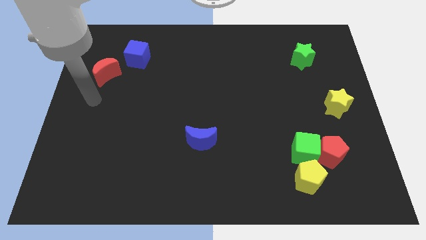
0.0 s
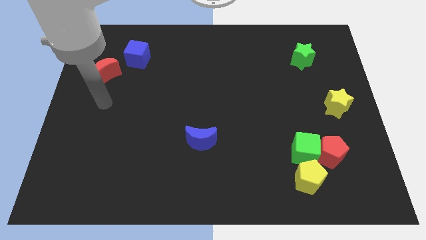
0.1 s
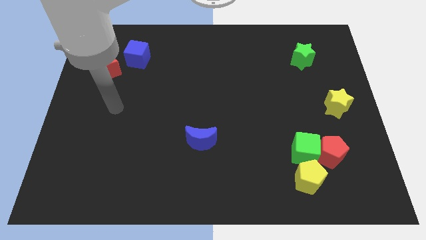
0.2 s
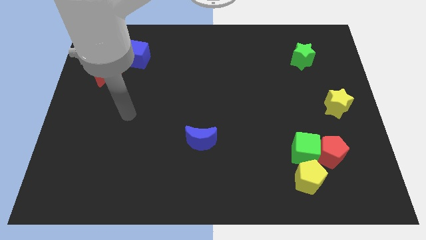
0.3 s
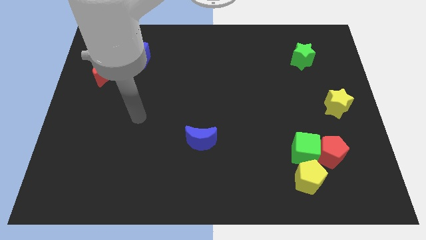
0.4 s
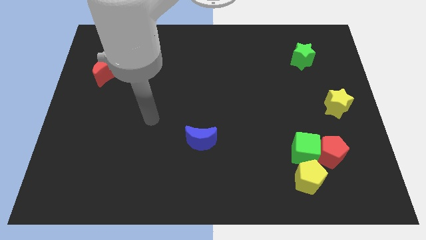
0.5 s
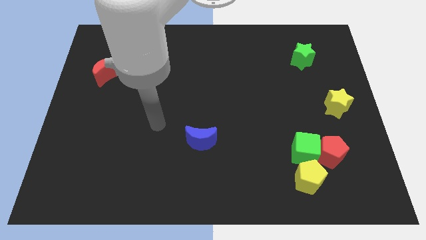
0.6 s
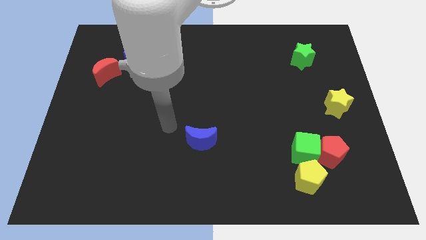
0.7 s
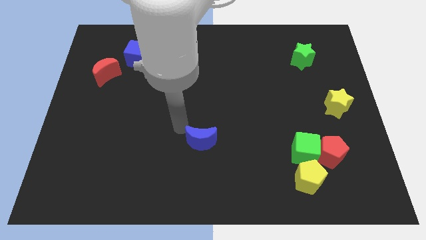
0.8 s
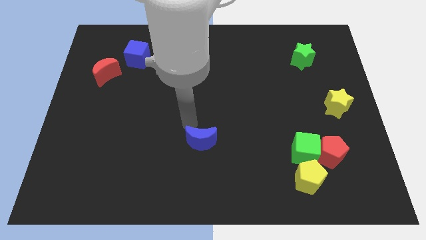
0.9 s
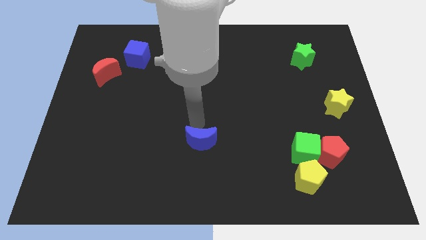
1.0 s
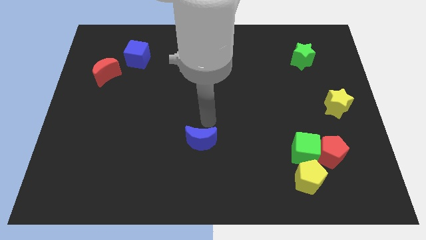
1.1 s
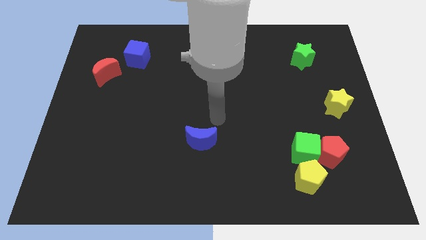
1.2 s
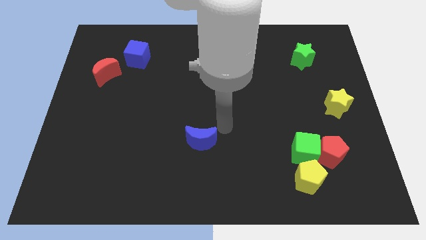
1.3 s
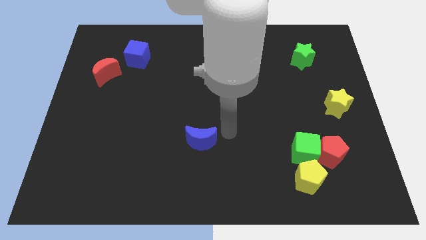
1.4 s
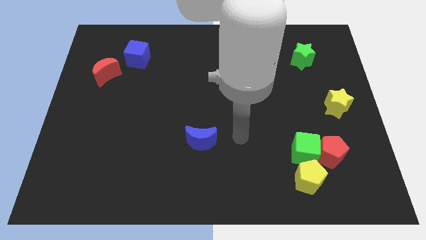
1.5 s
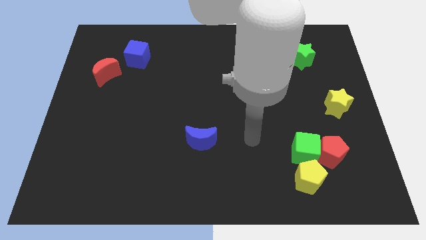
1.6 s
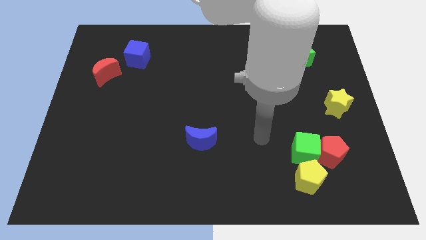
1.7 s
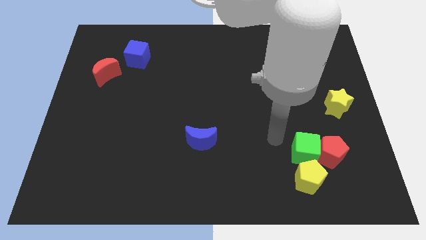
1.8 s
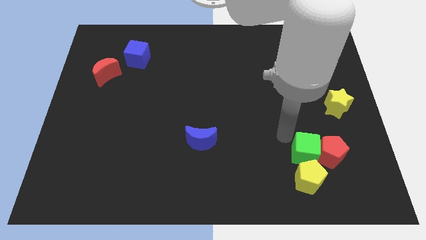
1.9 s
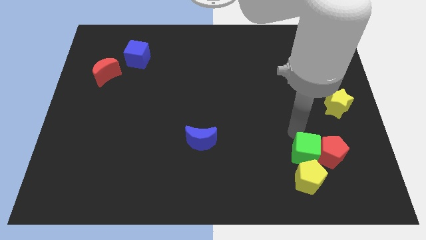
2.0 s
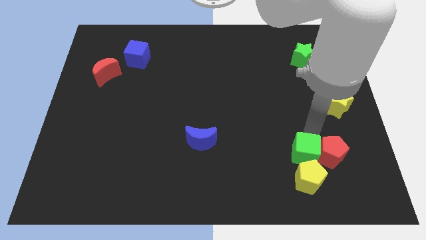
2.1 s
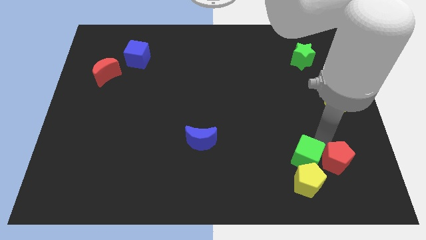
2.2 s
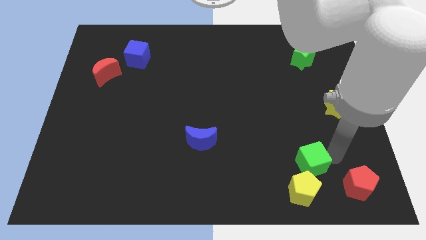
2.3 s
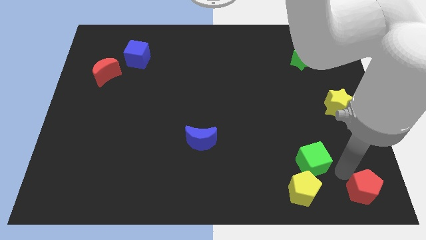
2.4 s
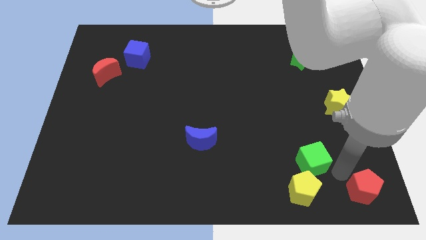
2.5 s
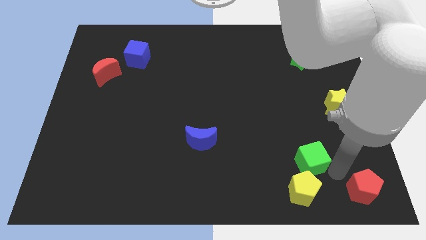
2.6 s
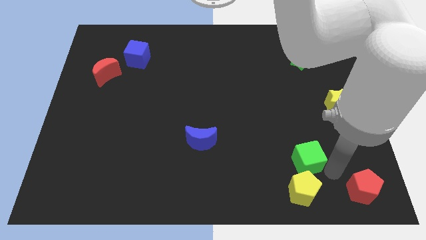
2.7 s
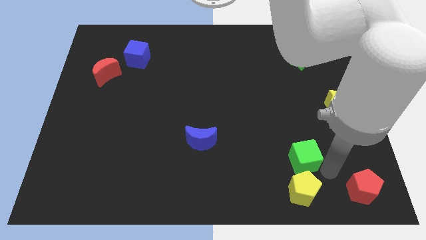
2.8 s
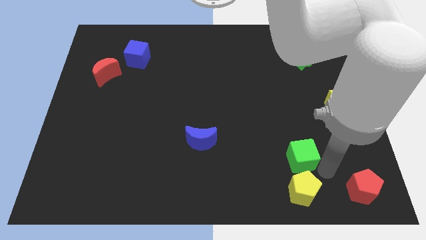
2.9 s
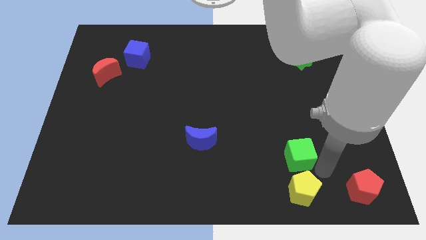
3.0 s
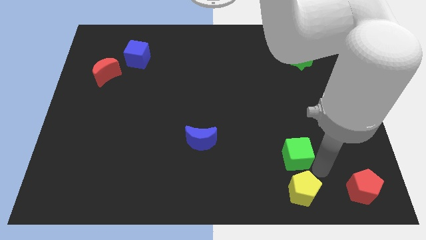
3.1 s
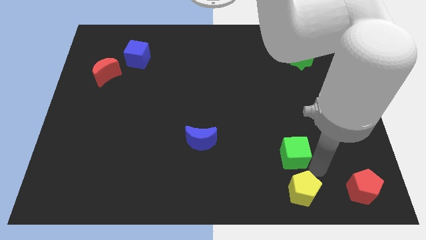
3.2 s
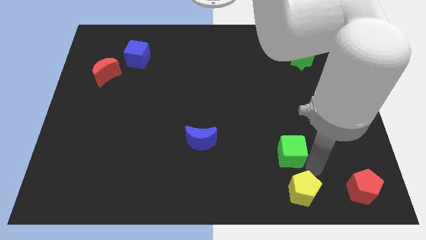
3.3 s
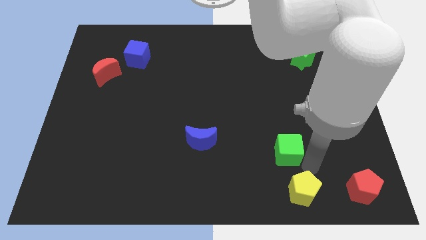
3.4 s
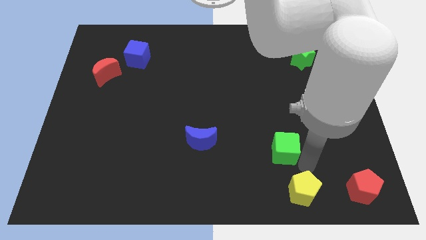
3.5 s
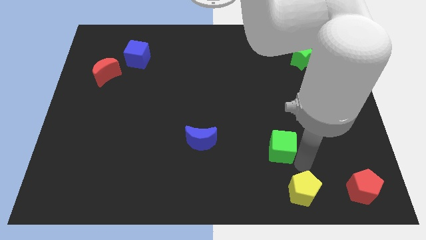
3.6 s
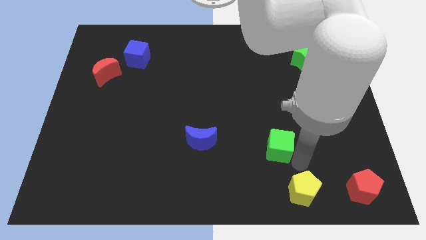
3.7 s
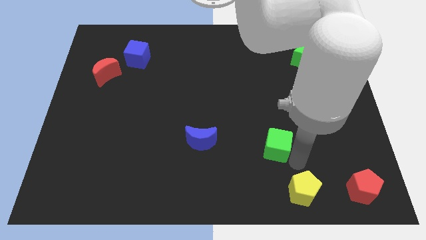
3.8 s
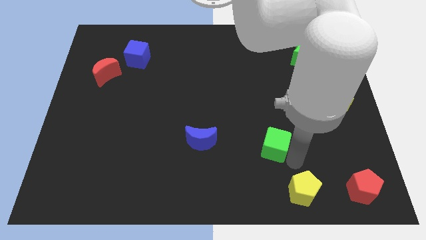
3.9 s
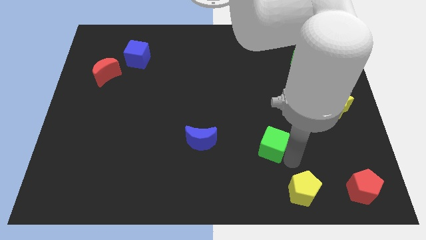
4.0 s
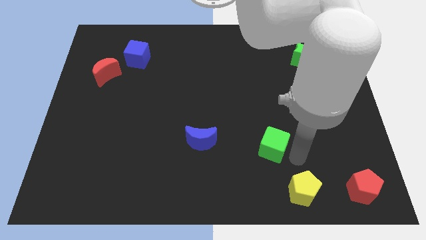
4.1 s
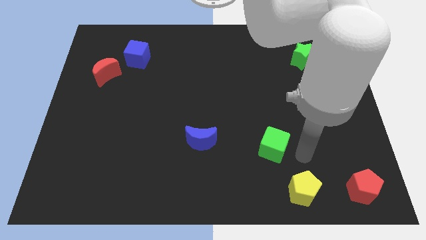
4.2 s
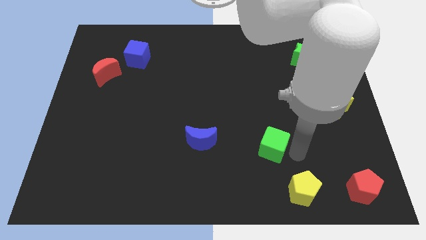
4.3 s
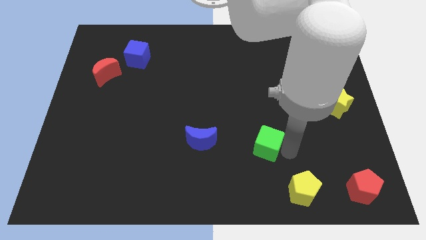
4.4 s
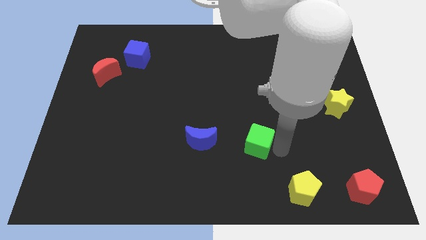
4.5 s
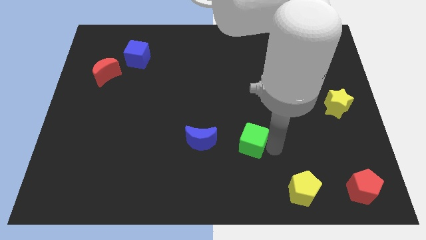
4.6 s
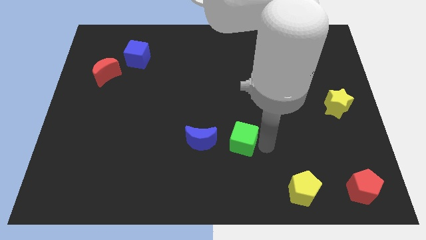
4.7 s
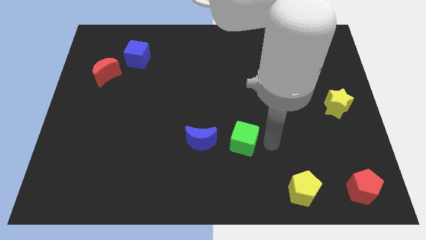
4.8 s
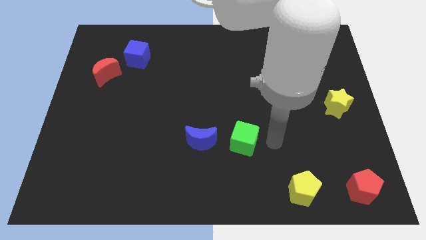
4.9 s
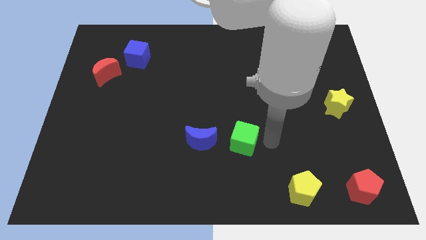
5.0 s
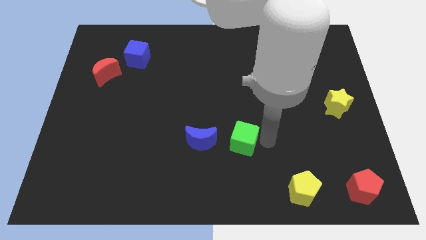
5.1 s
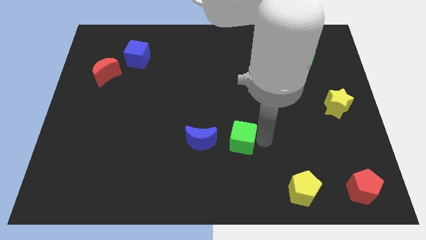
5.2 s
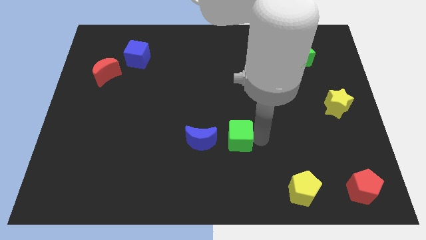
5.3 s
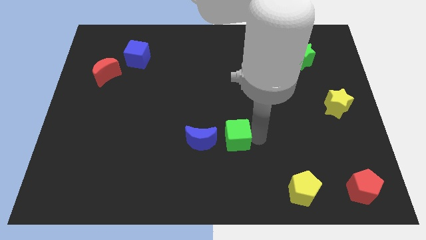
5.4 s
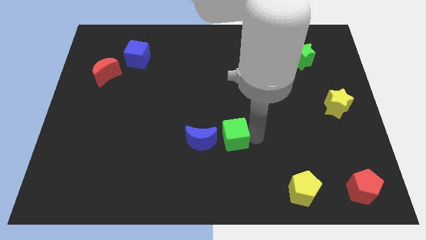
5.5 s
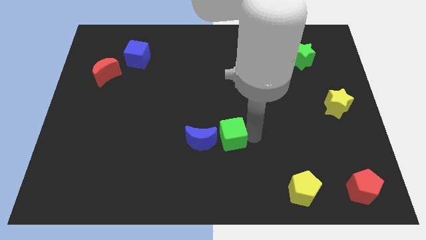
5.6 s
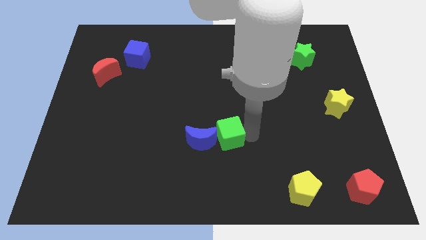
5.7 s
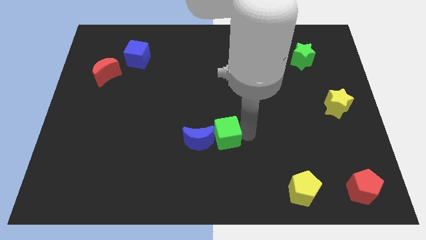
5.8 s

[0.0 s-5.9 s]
move the green cube next to the blue moon

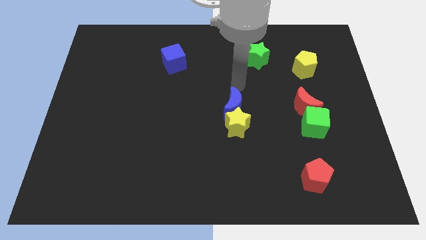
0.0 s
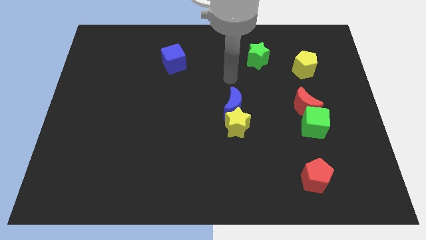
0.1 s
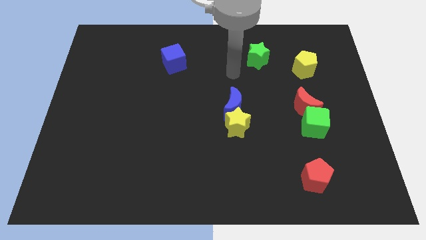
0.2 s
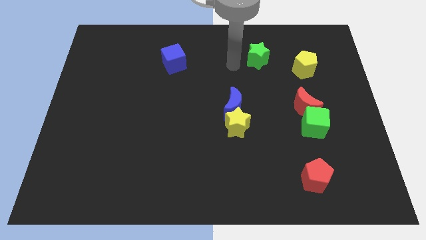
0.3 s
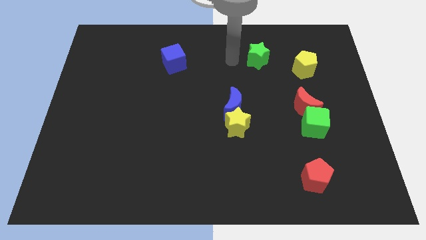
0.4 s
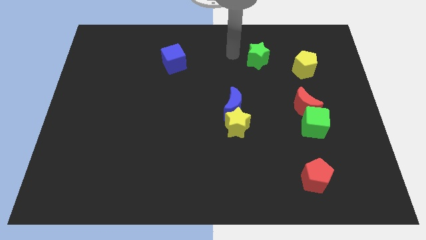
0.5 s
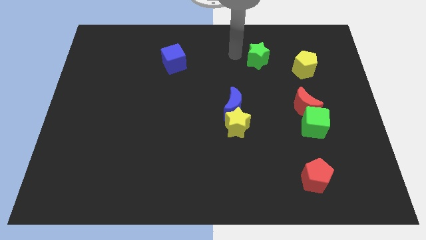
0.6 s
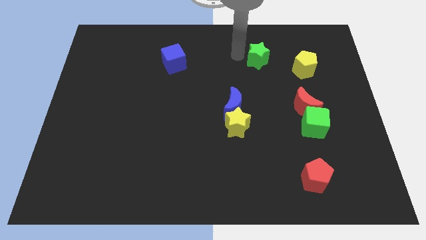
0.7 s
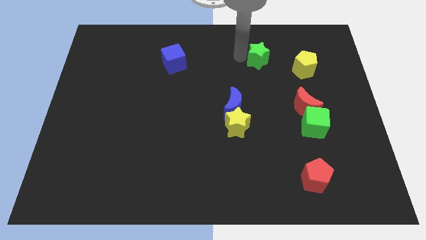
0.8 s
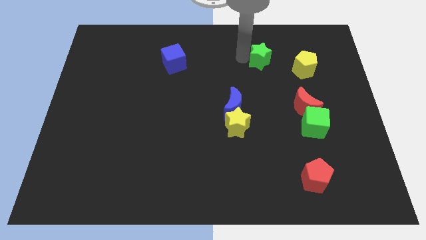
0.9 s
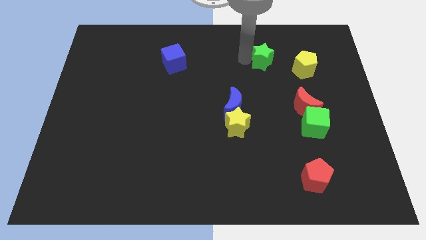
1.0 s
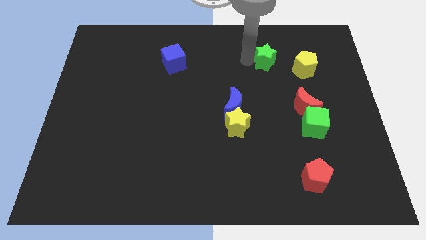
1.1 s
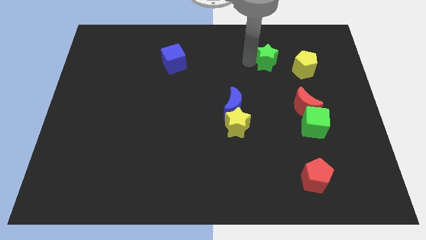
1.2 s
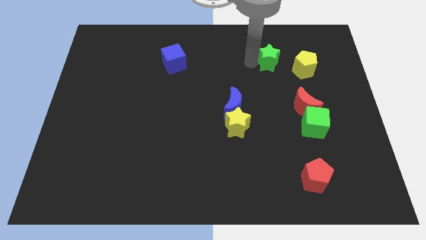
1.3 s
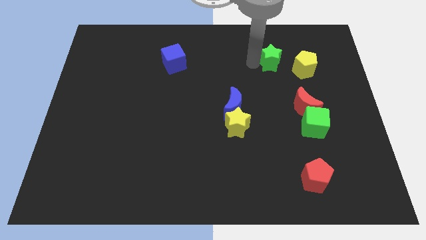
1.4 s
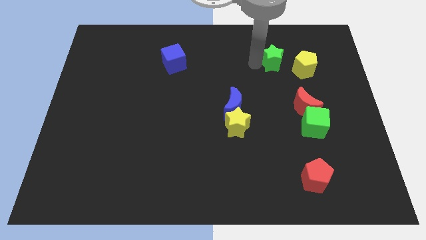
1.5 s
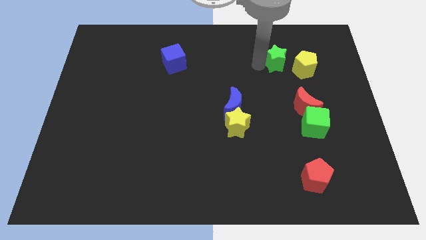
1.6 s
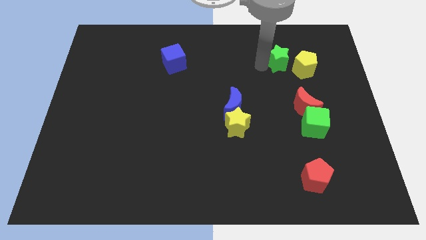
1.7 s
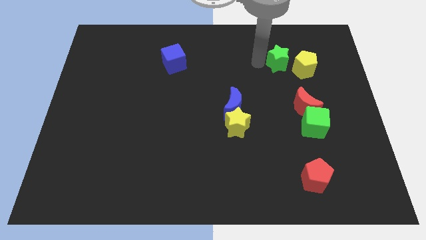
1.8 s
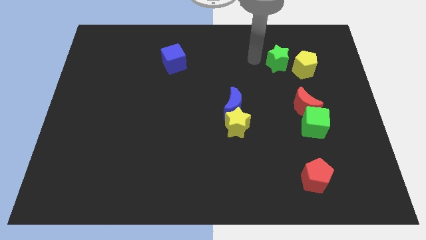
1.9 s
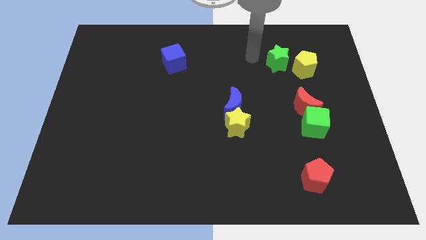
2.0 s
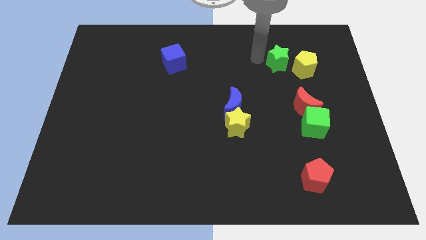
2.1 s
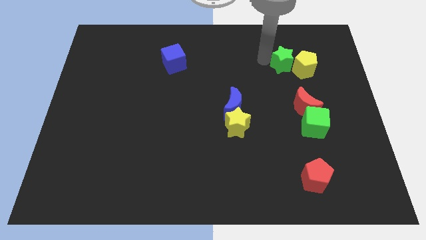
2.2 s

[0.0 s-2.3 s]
slide the green star close to the yellow pentagon
